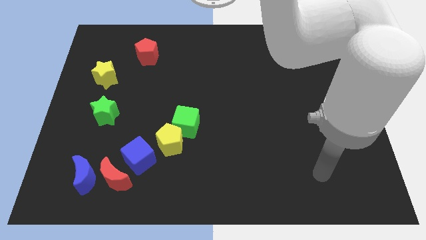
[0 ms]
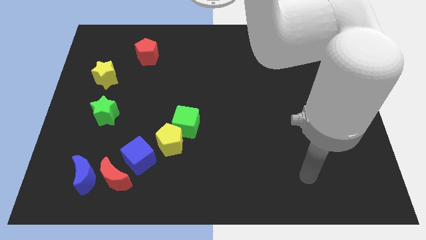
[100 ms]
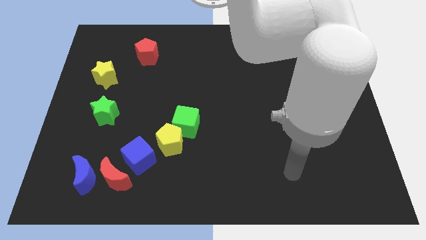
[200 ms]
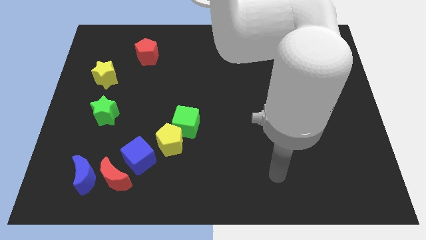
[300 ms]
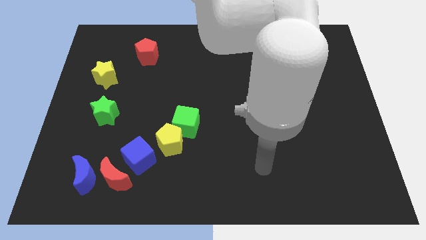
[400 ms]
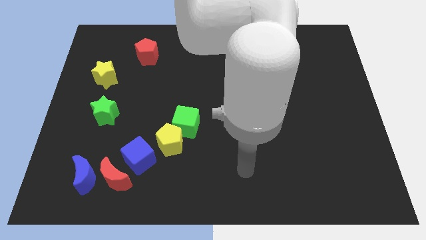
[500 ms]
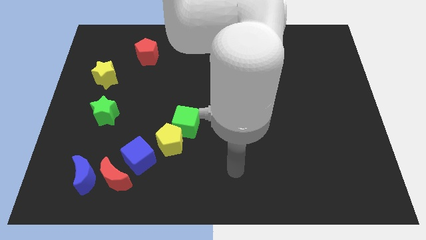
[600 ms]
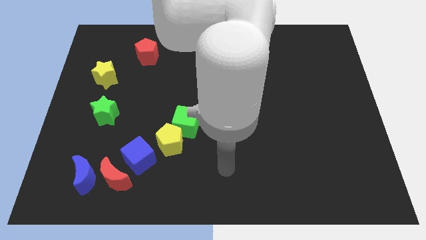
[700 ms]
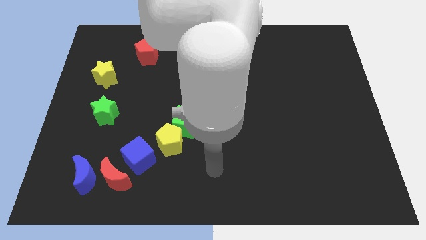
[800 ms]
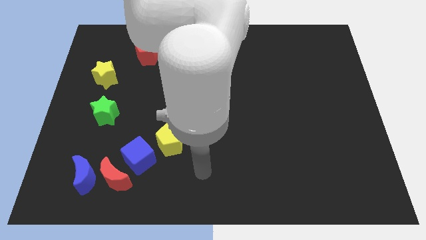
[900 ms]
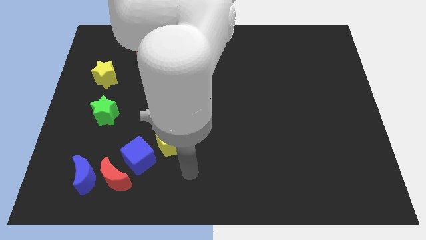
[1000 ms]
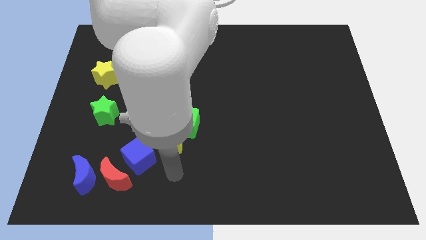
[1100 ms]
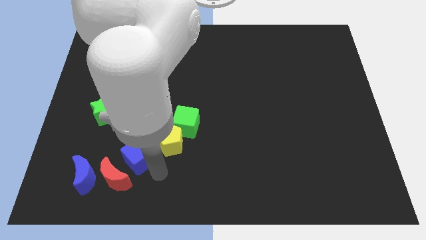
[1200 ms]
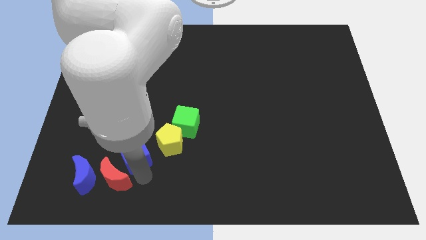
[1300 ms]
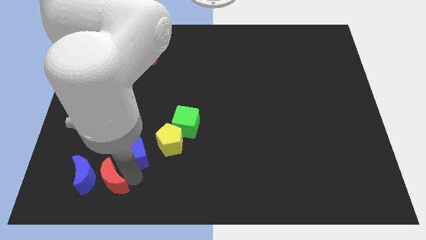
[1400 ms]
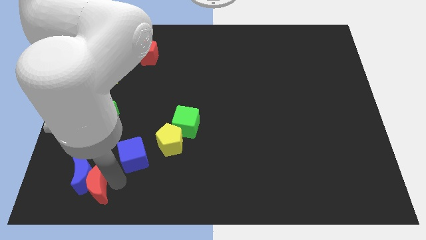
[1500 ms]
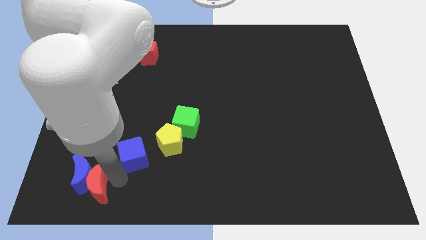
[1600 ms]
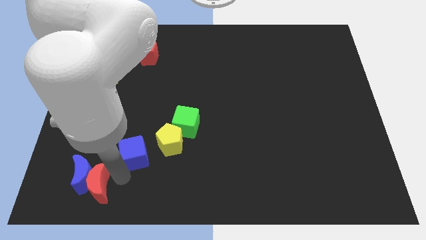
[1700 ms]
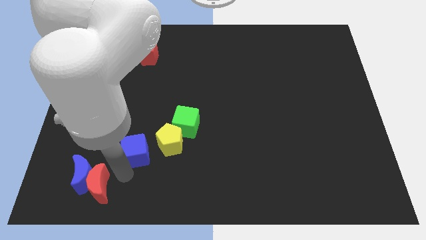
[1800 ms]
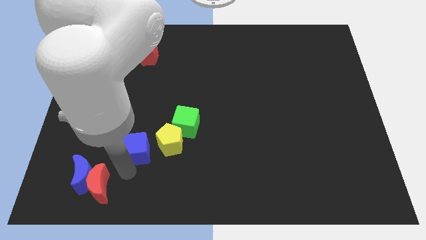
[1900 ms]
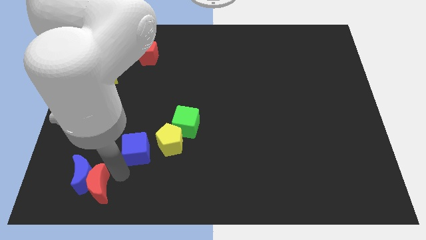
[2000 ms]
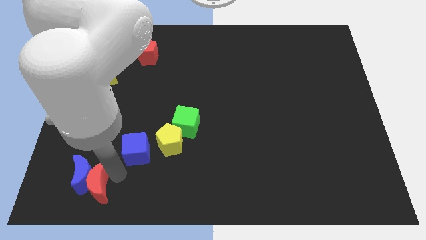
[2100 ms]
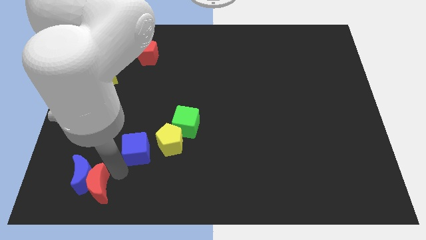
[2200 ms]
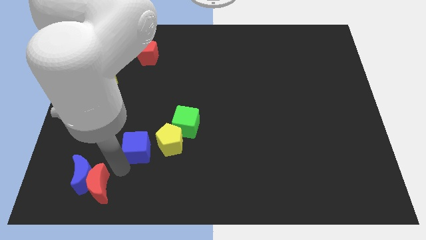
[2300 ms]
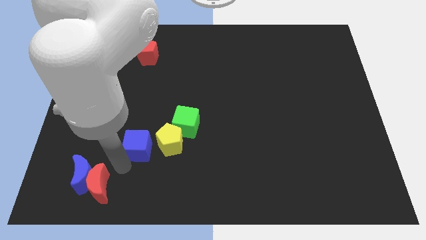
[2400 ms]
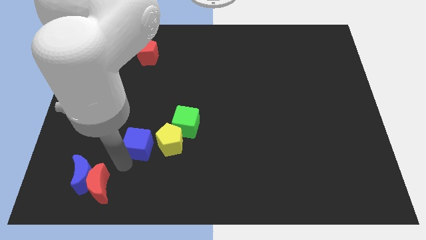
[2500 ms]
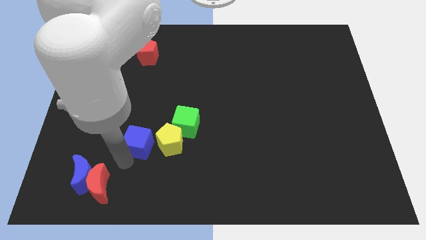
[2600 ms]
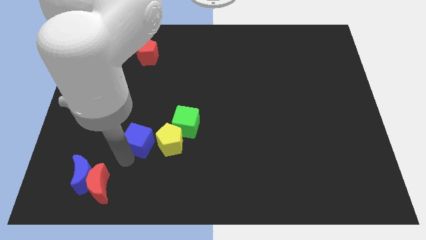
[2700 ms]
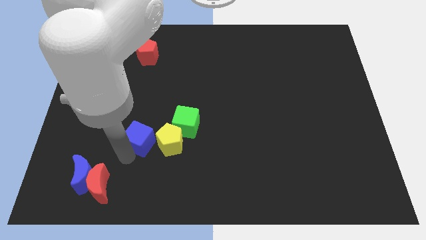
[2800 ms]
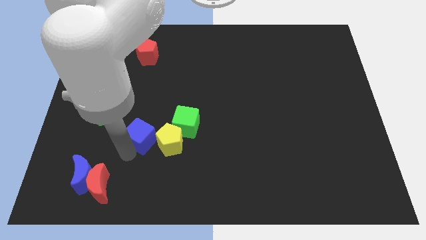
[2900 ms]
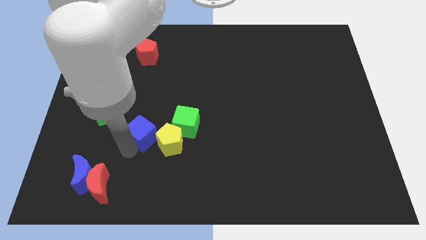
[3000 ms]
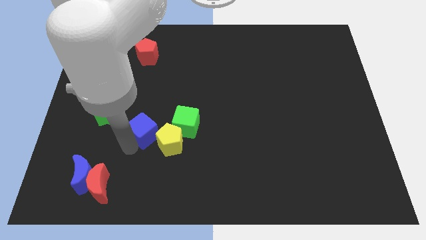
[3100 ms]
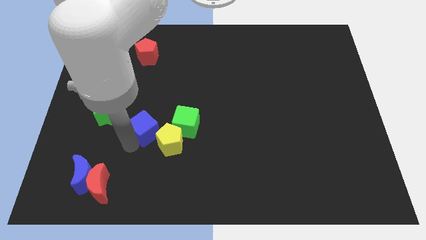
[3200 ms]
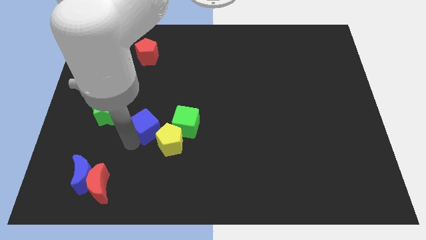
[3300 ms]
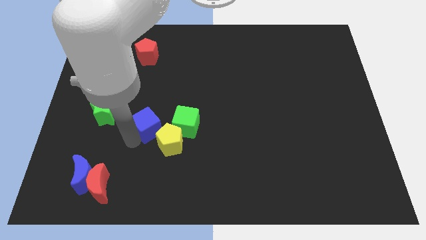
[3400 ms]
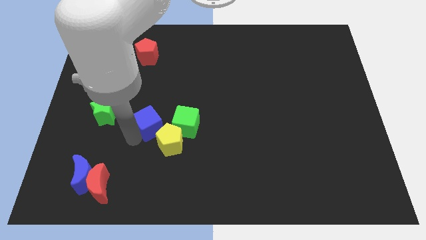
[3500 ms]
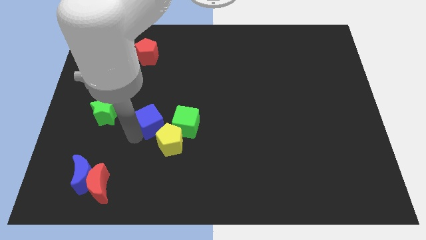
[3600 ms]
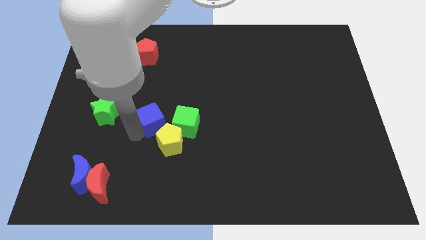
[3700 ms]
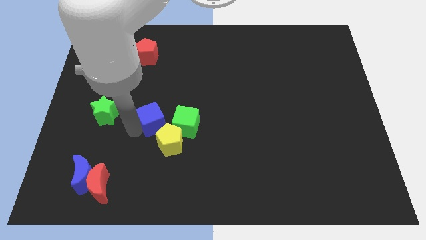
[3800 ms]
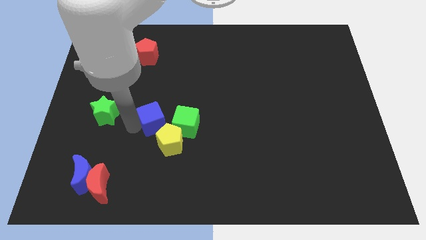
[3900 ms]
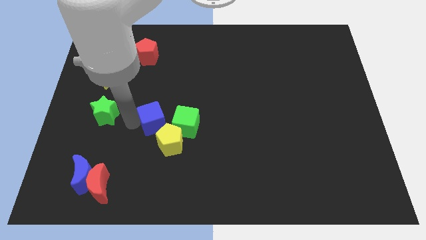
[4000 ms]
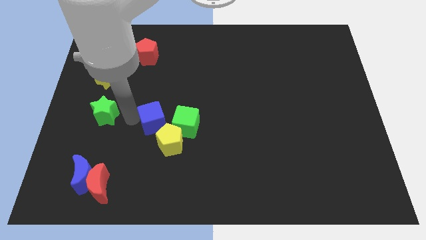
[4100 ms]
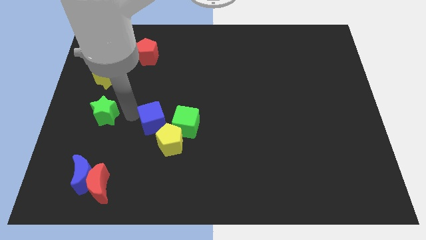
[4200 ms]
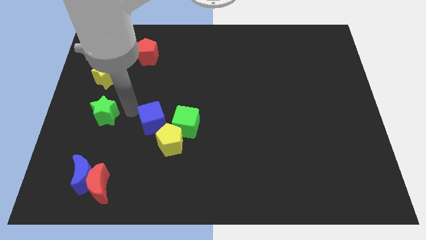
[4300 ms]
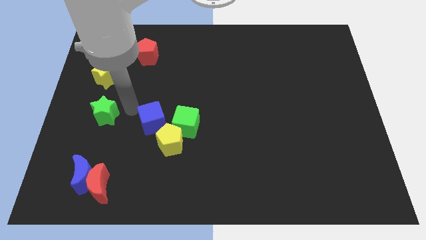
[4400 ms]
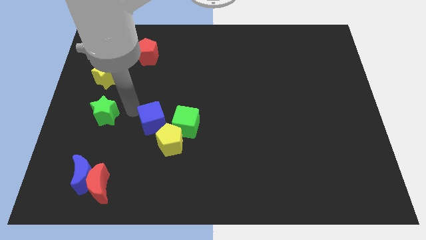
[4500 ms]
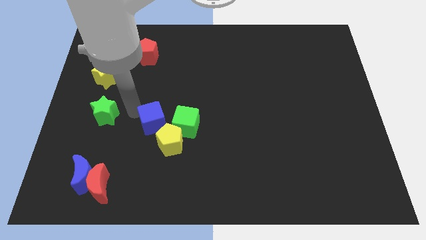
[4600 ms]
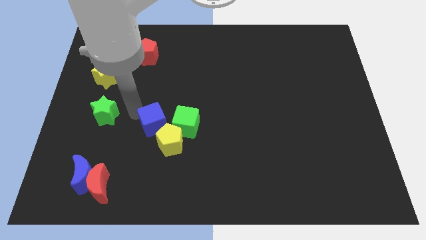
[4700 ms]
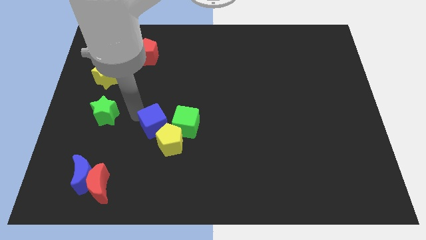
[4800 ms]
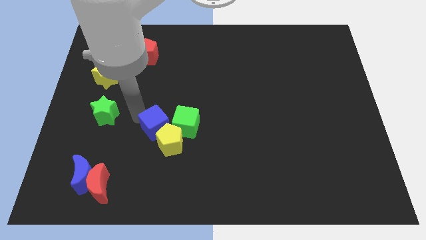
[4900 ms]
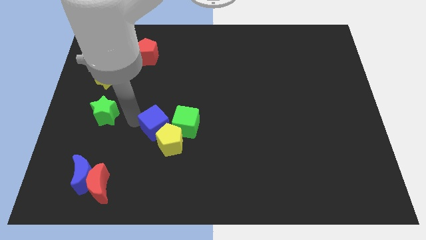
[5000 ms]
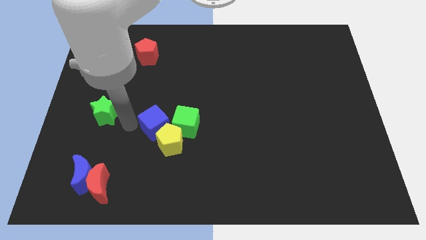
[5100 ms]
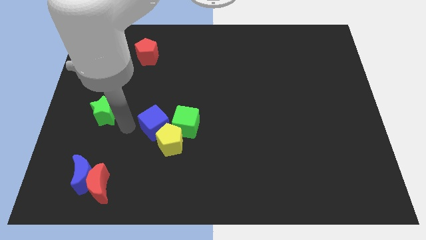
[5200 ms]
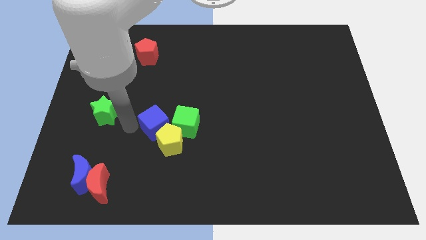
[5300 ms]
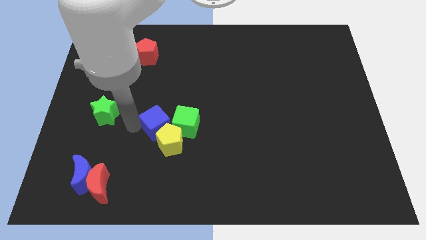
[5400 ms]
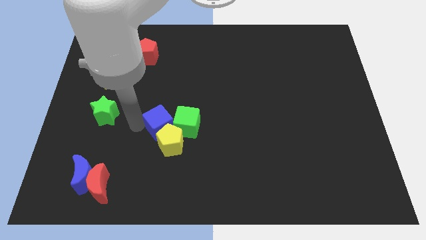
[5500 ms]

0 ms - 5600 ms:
put the blue cube to the green cube
